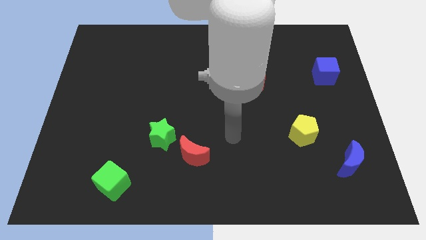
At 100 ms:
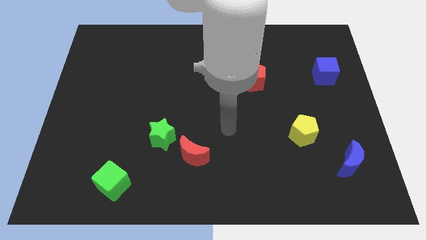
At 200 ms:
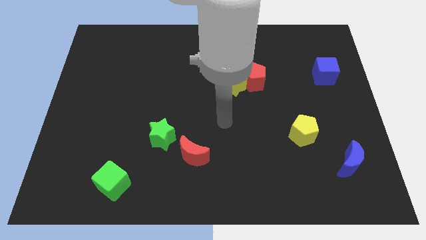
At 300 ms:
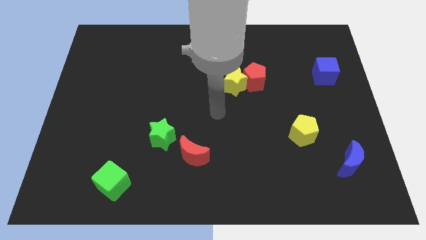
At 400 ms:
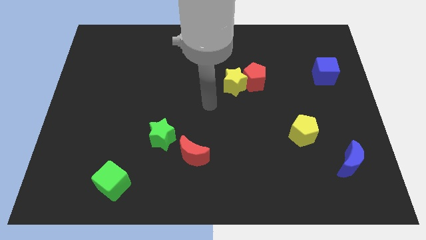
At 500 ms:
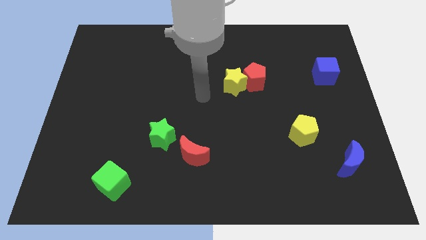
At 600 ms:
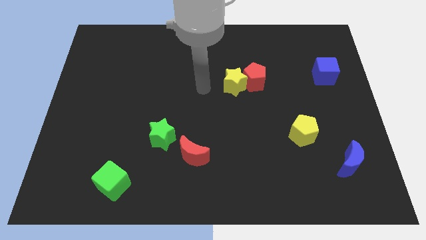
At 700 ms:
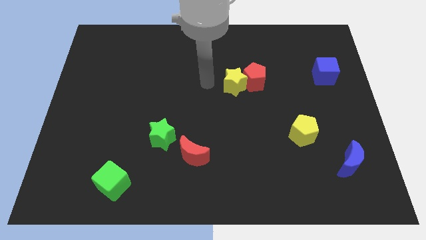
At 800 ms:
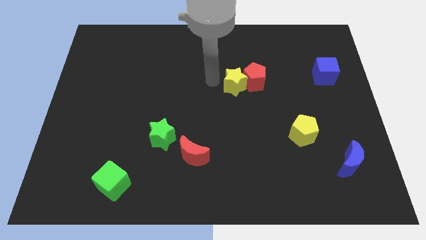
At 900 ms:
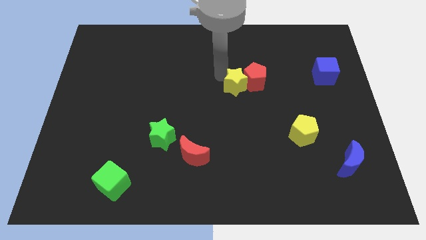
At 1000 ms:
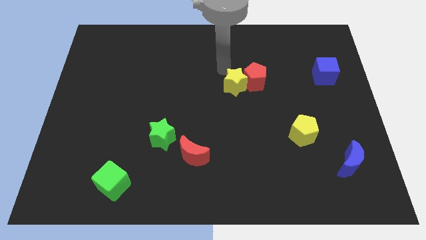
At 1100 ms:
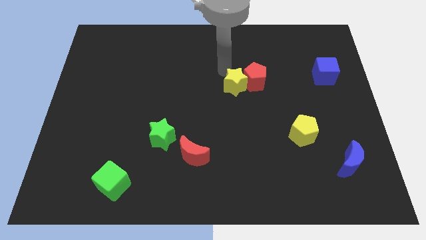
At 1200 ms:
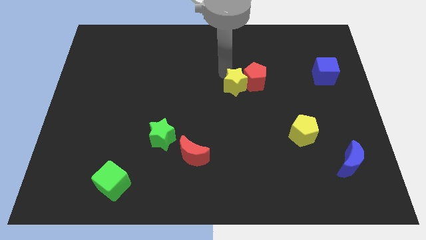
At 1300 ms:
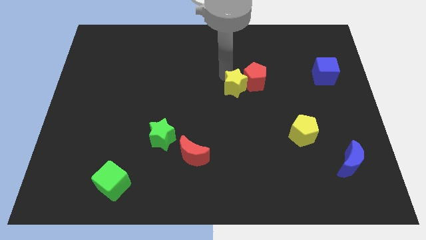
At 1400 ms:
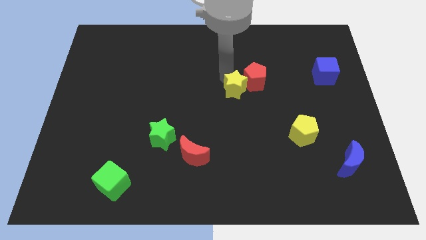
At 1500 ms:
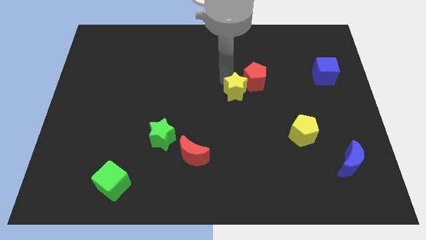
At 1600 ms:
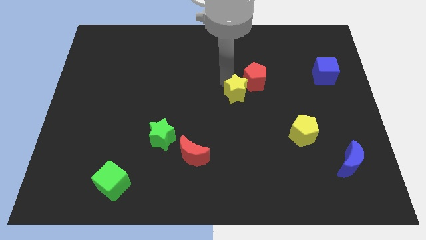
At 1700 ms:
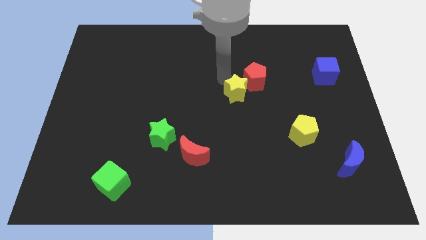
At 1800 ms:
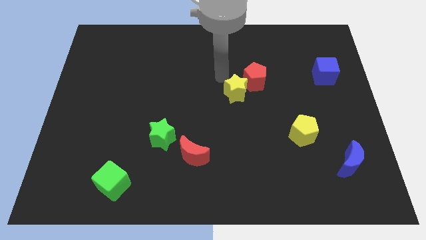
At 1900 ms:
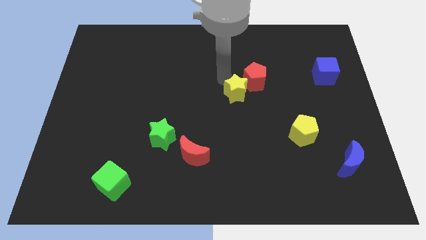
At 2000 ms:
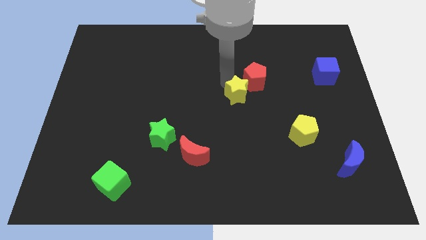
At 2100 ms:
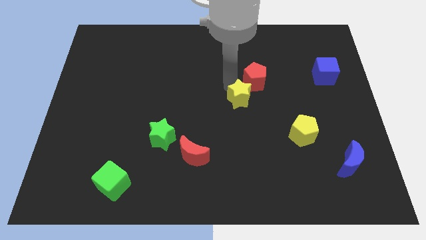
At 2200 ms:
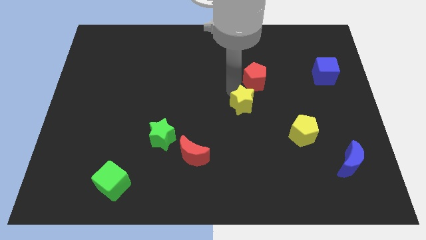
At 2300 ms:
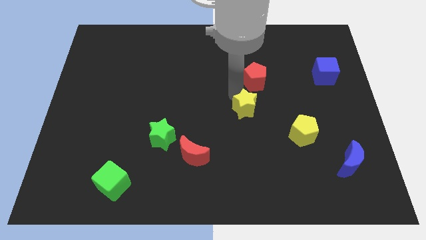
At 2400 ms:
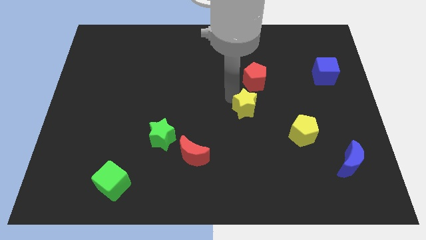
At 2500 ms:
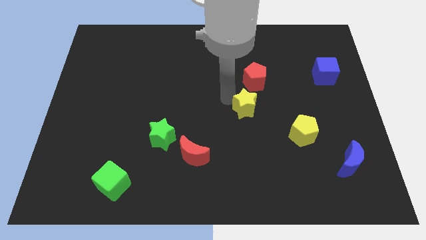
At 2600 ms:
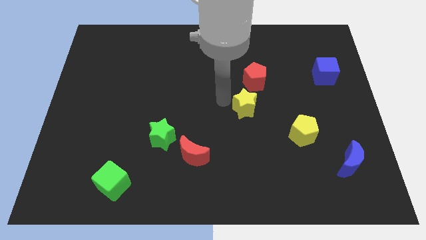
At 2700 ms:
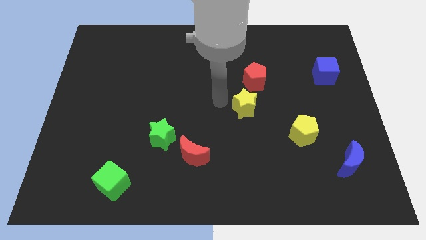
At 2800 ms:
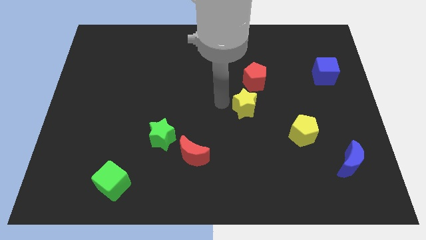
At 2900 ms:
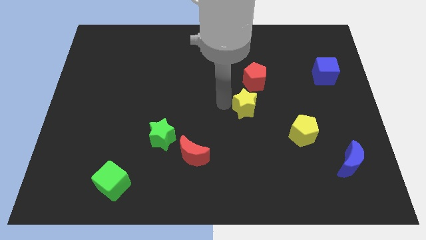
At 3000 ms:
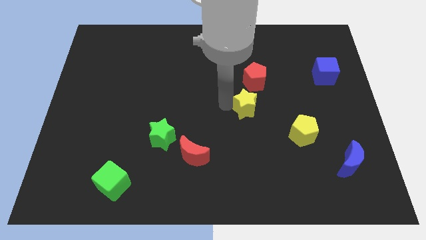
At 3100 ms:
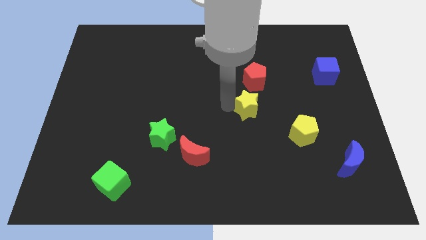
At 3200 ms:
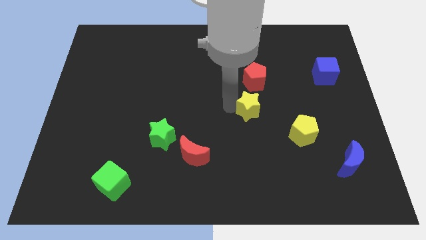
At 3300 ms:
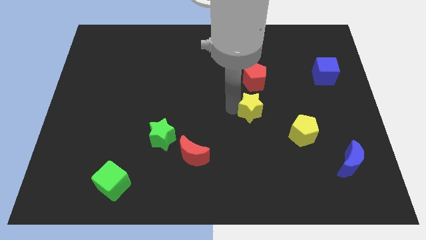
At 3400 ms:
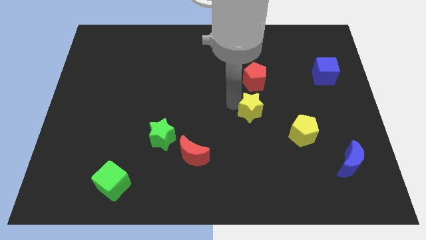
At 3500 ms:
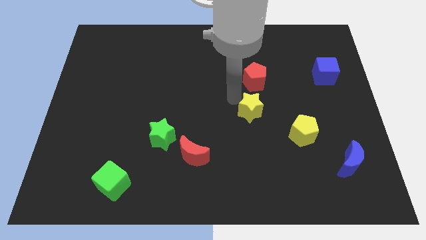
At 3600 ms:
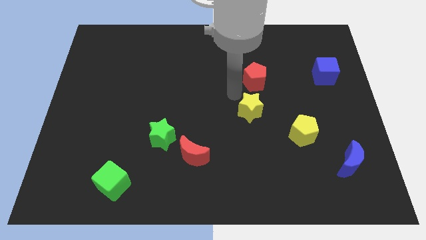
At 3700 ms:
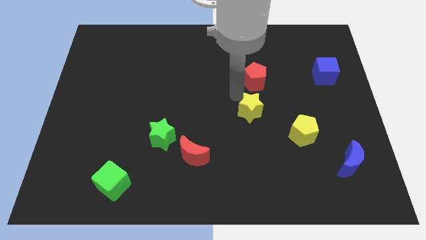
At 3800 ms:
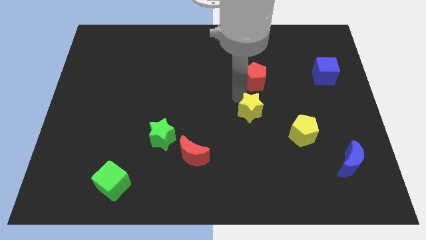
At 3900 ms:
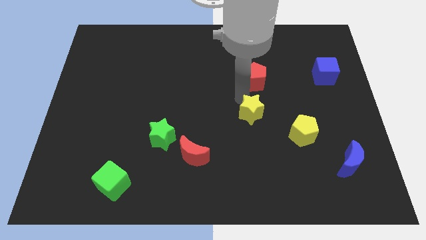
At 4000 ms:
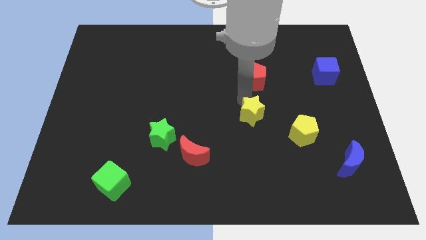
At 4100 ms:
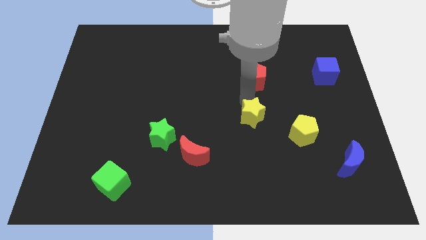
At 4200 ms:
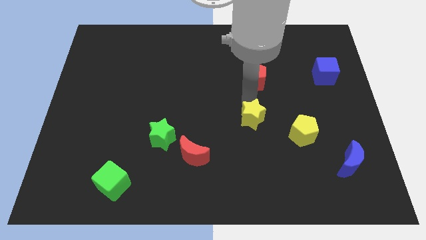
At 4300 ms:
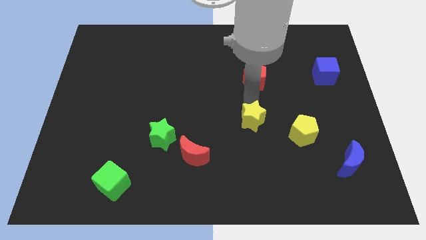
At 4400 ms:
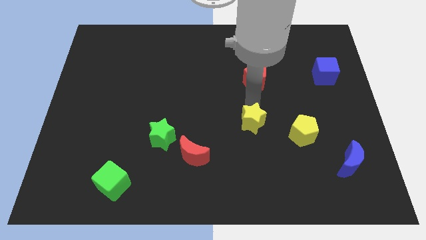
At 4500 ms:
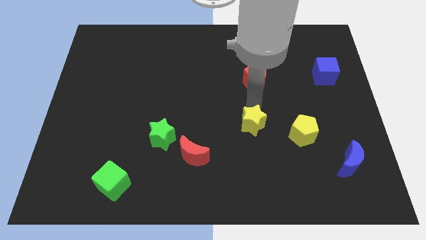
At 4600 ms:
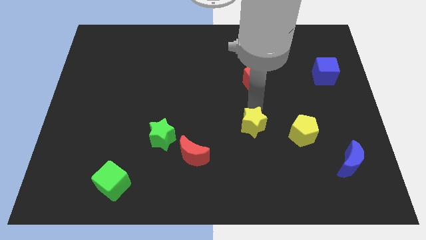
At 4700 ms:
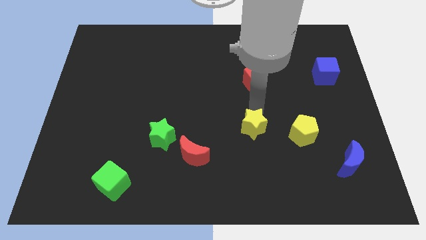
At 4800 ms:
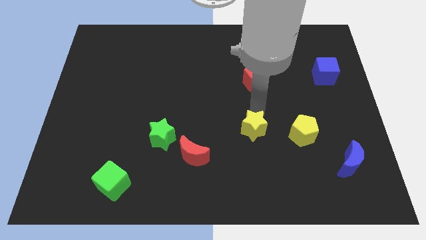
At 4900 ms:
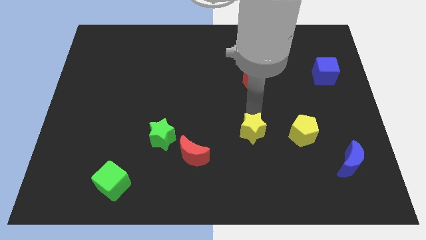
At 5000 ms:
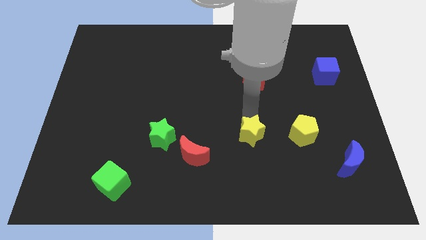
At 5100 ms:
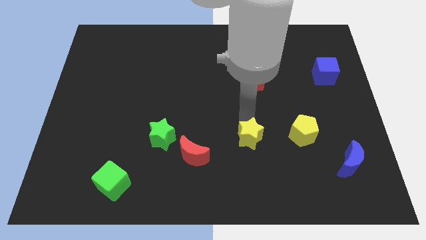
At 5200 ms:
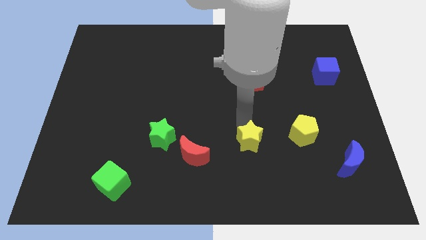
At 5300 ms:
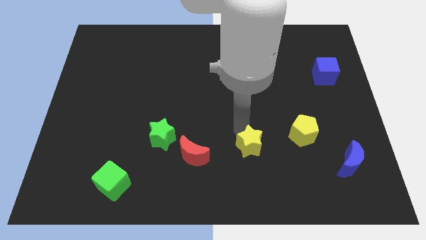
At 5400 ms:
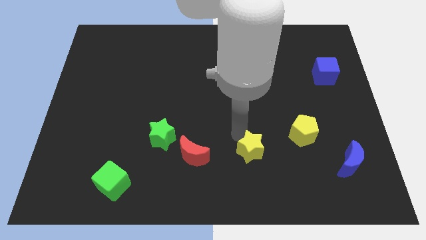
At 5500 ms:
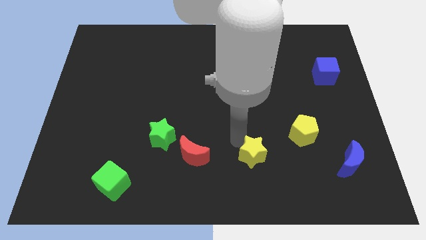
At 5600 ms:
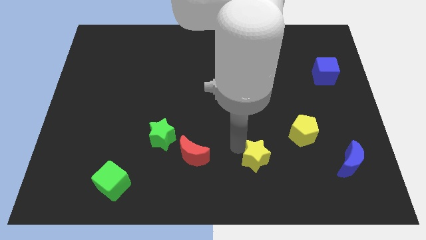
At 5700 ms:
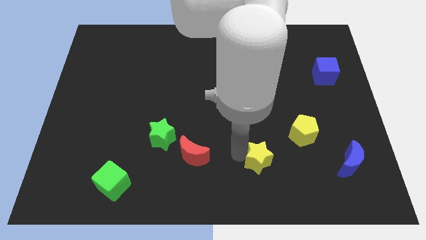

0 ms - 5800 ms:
put the yellow star to the bottom left of the yellow pentagon

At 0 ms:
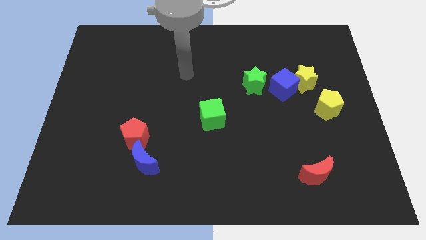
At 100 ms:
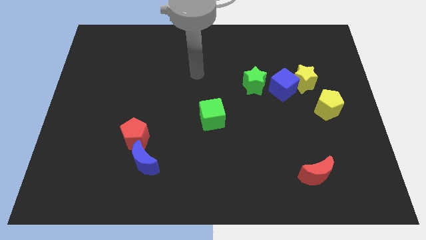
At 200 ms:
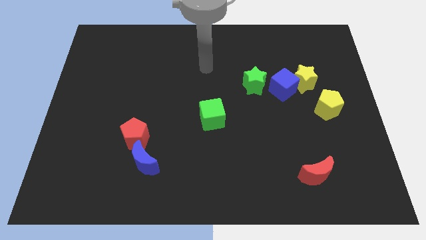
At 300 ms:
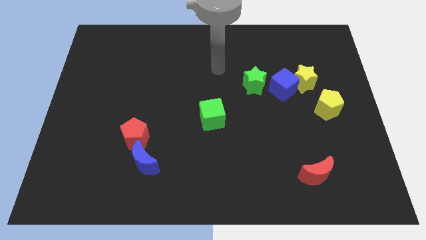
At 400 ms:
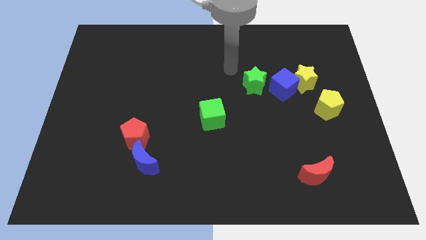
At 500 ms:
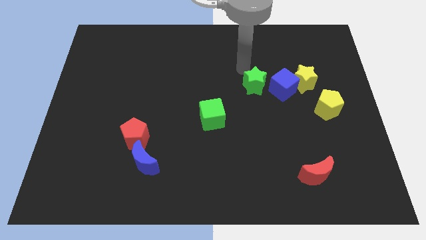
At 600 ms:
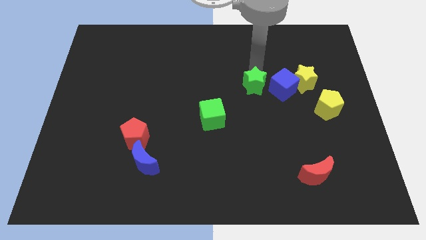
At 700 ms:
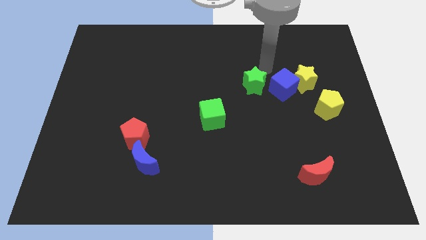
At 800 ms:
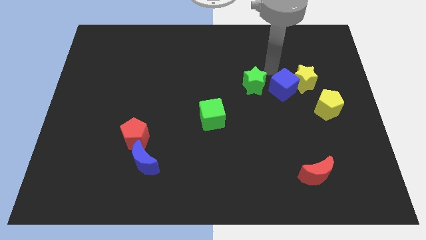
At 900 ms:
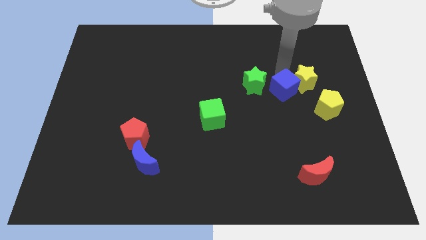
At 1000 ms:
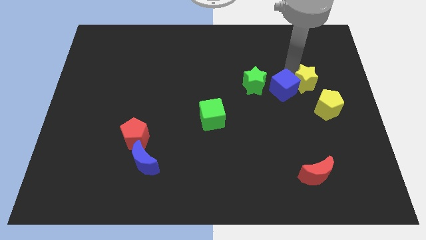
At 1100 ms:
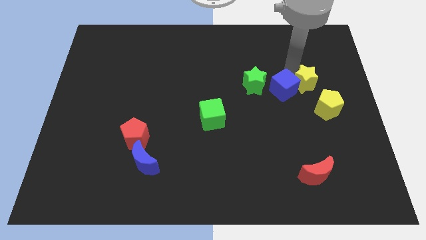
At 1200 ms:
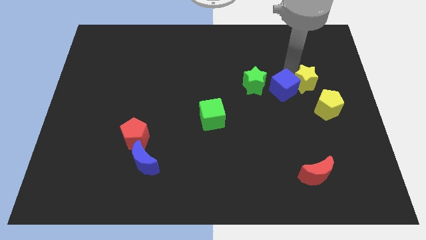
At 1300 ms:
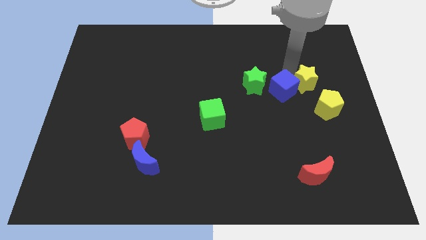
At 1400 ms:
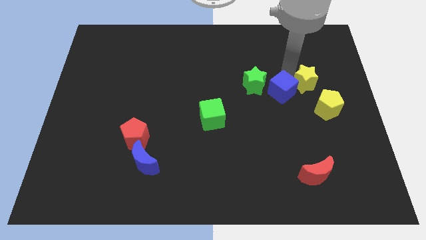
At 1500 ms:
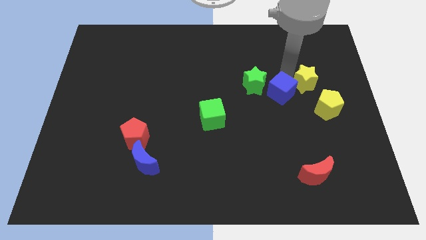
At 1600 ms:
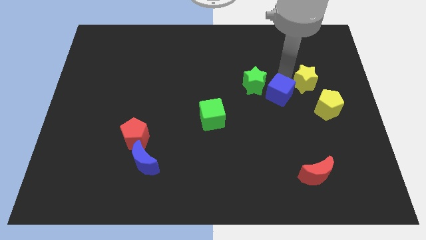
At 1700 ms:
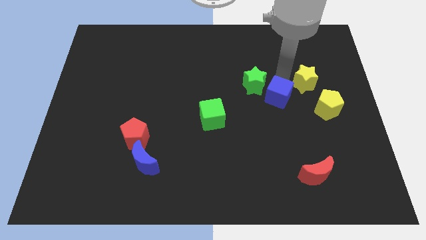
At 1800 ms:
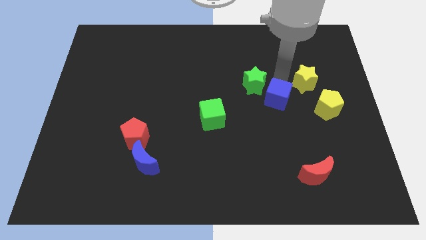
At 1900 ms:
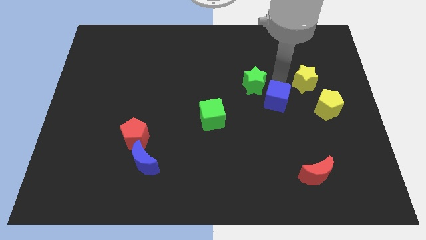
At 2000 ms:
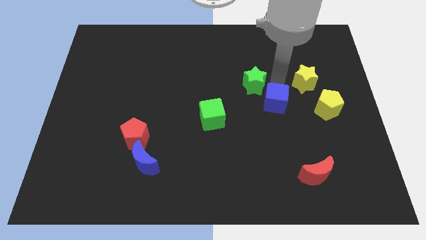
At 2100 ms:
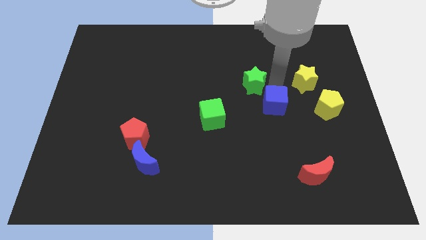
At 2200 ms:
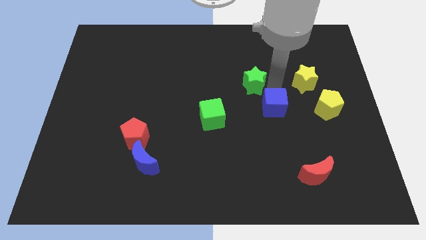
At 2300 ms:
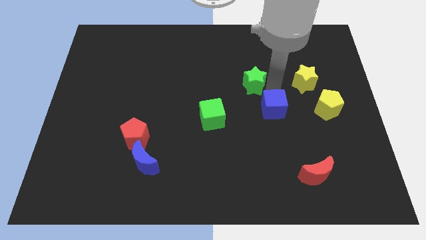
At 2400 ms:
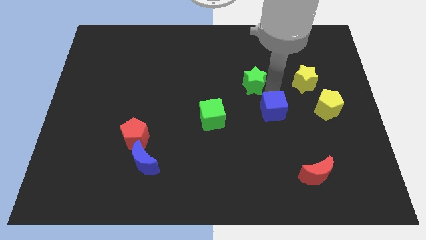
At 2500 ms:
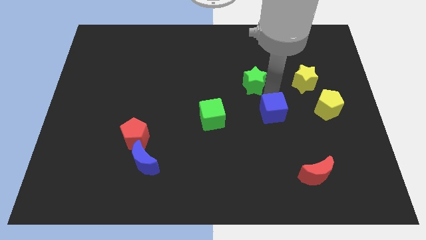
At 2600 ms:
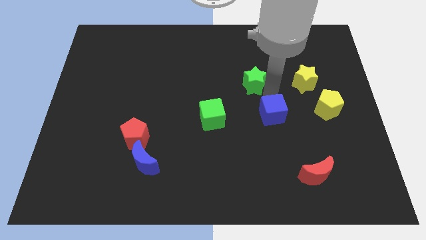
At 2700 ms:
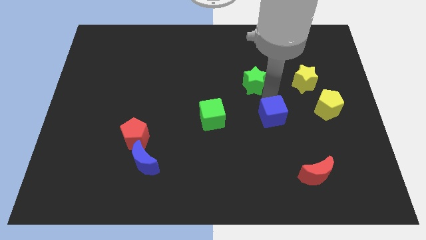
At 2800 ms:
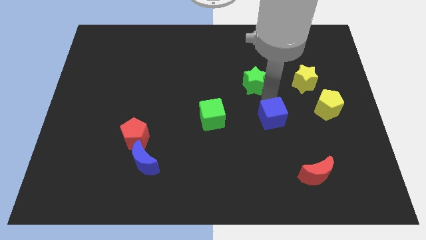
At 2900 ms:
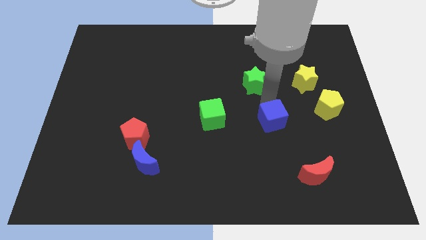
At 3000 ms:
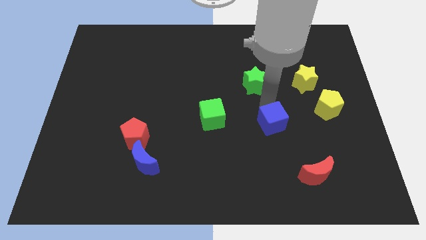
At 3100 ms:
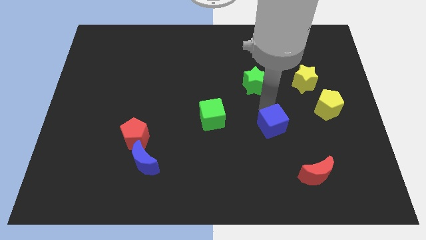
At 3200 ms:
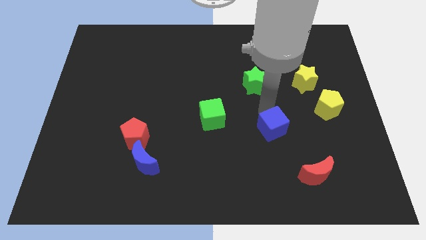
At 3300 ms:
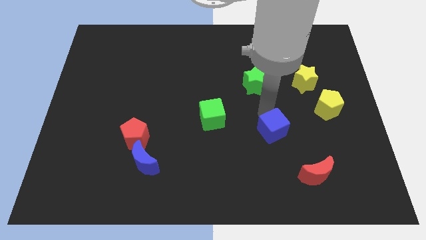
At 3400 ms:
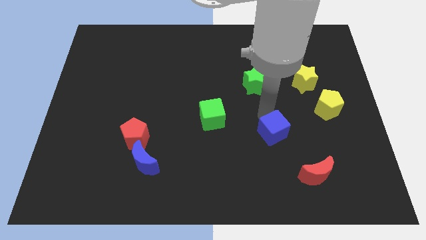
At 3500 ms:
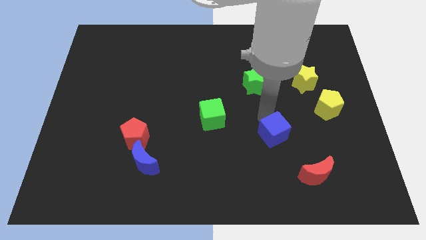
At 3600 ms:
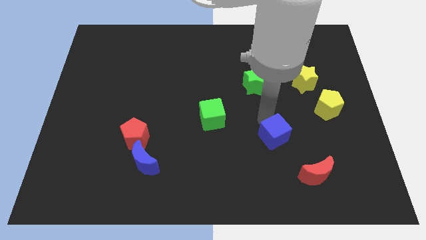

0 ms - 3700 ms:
push the blue cube to the top left side of the red moon
